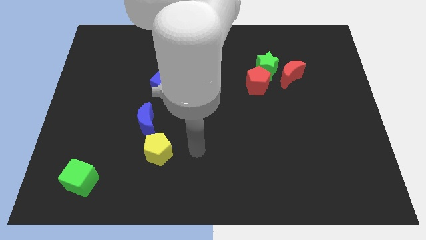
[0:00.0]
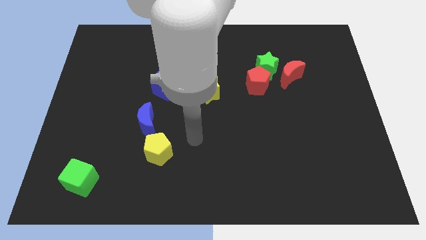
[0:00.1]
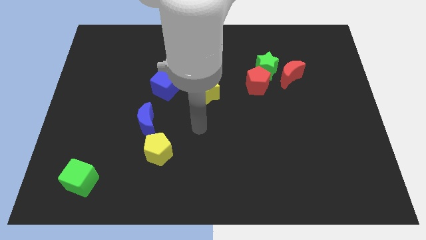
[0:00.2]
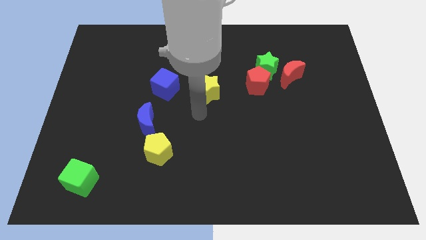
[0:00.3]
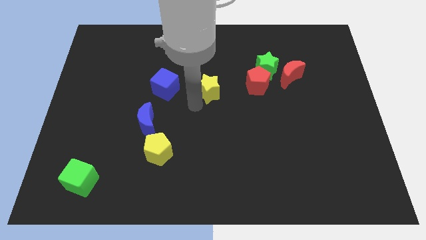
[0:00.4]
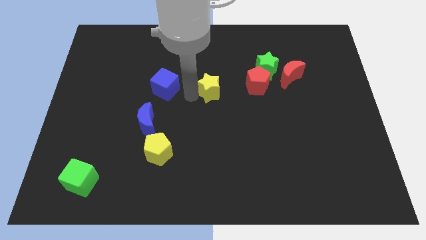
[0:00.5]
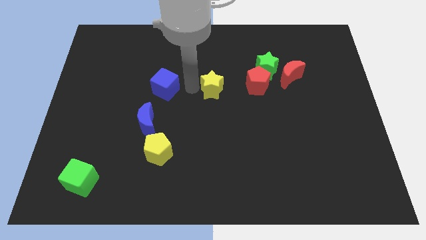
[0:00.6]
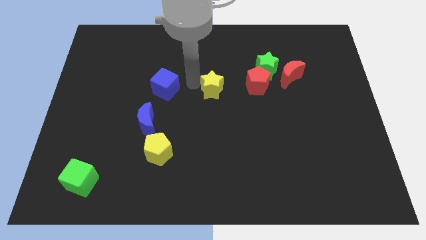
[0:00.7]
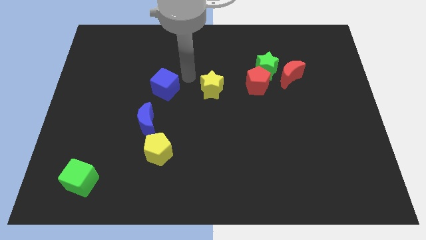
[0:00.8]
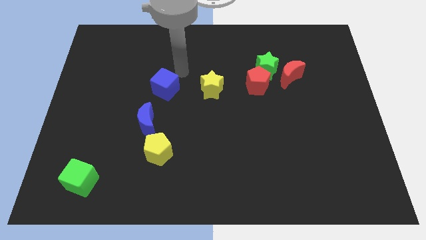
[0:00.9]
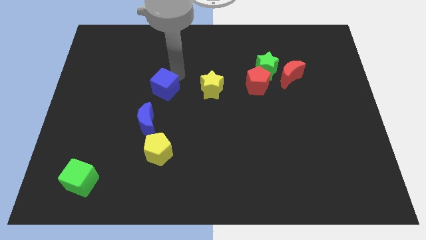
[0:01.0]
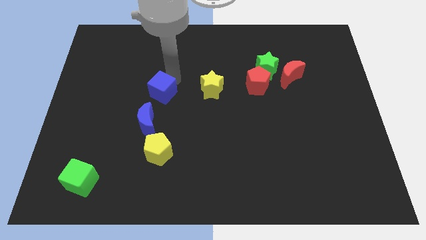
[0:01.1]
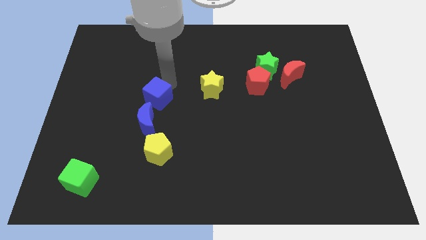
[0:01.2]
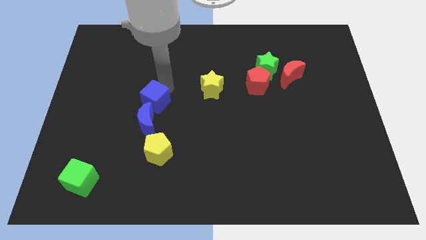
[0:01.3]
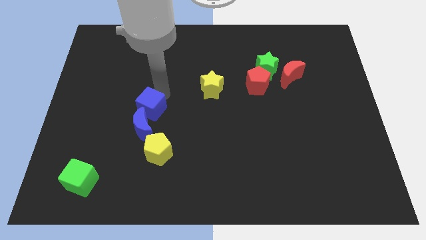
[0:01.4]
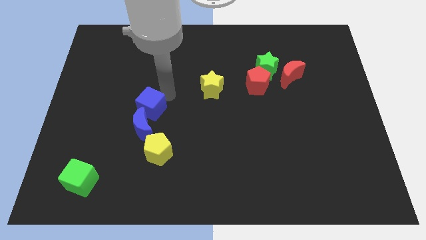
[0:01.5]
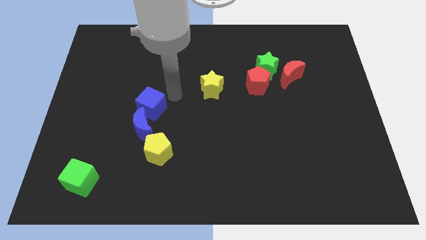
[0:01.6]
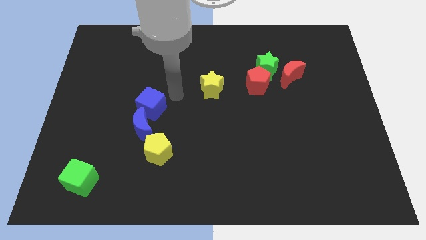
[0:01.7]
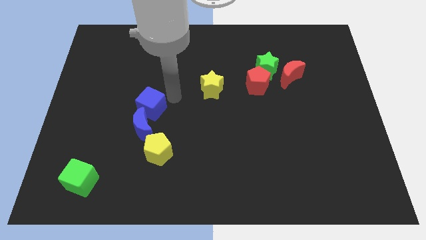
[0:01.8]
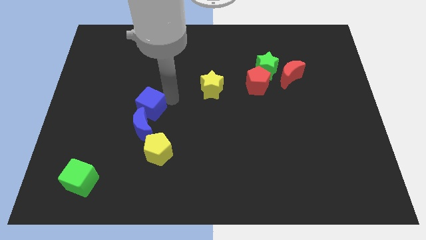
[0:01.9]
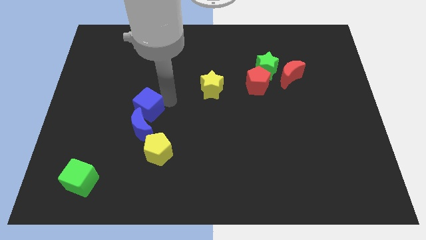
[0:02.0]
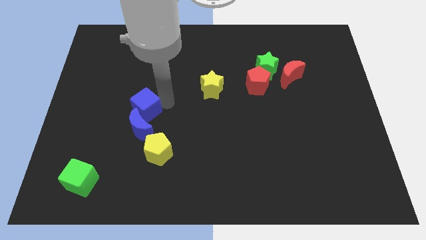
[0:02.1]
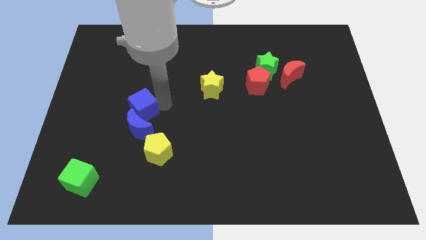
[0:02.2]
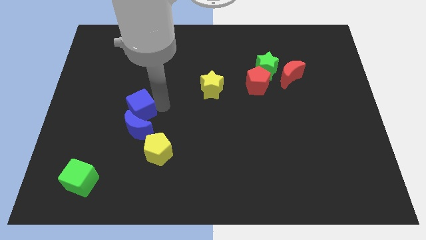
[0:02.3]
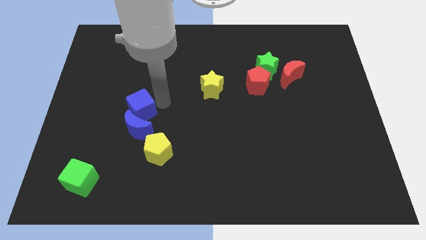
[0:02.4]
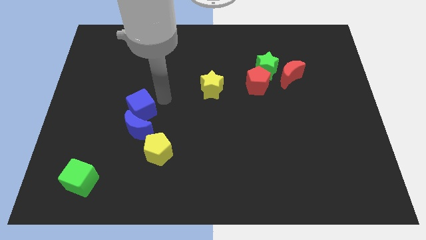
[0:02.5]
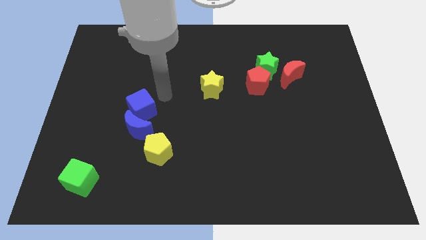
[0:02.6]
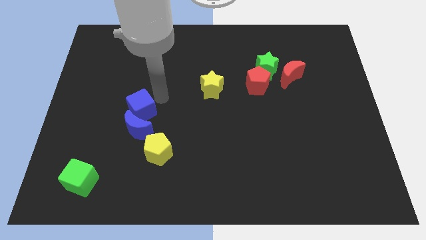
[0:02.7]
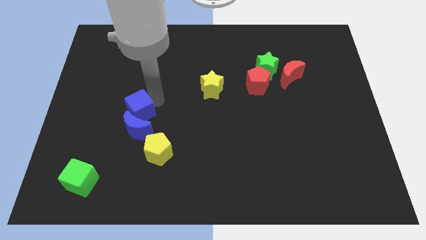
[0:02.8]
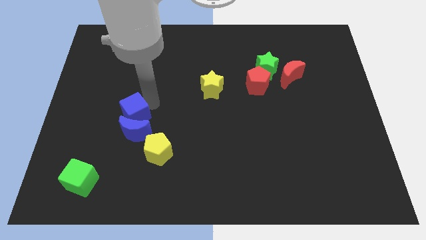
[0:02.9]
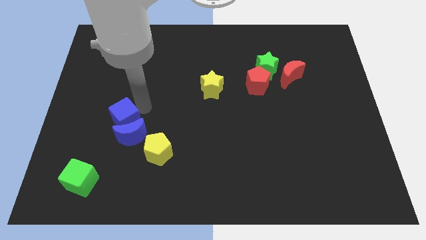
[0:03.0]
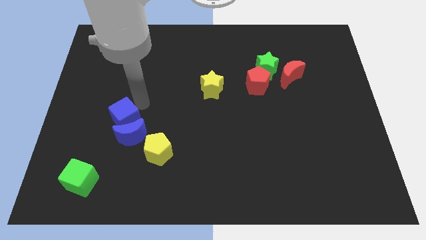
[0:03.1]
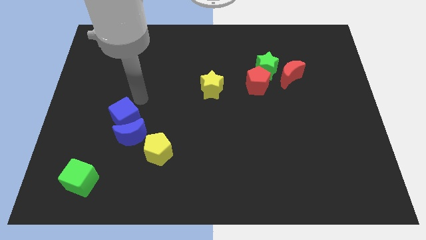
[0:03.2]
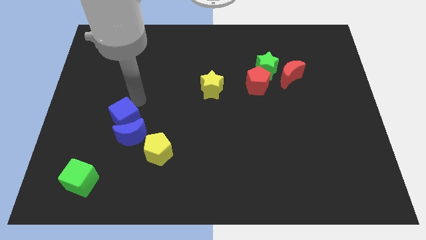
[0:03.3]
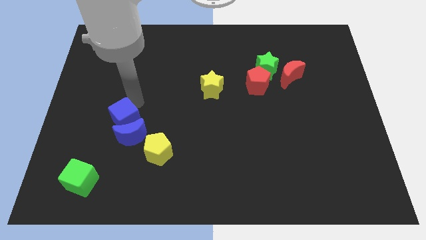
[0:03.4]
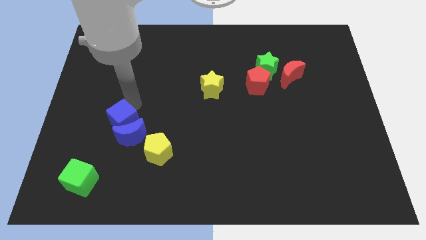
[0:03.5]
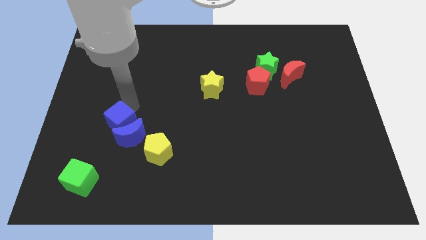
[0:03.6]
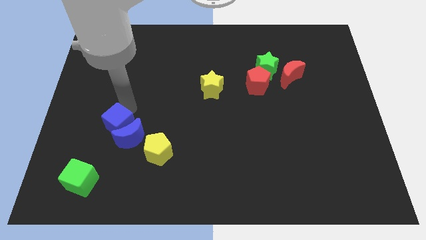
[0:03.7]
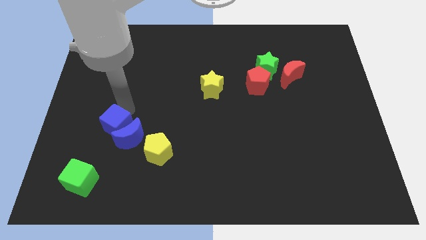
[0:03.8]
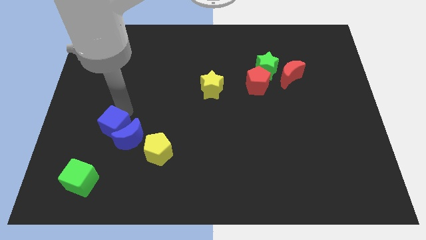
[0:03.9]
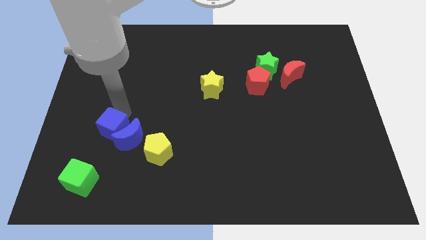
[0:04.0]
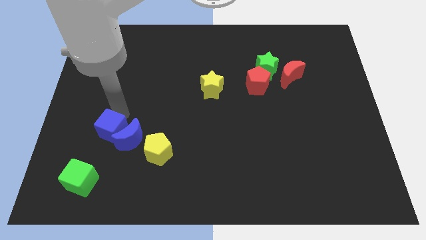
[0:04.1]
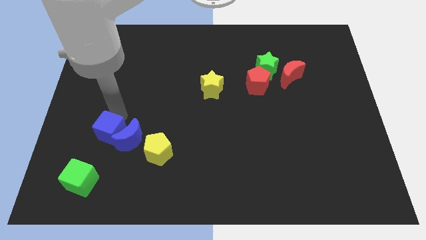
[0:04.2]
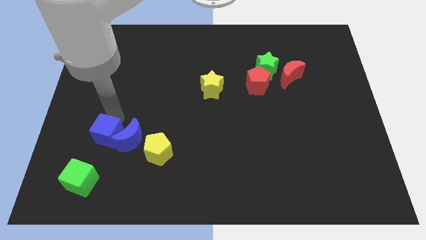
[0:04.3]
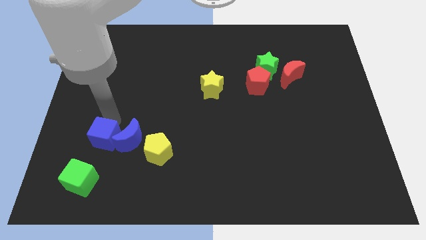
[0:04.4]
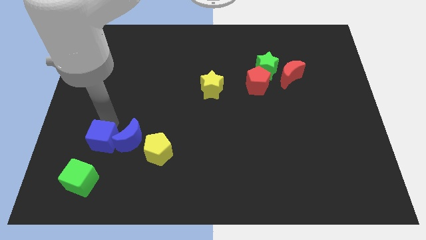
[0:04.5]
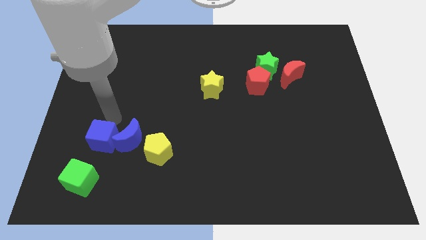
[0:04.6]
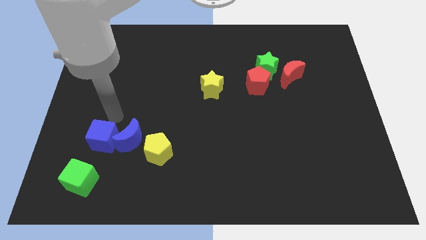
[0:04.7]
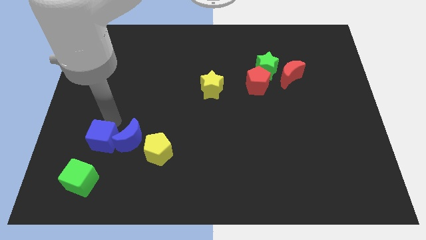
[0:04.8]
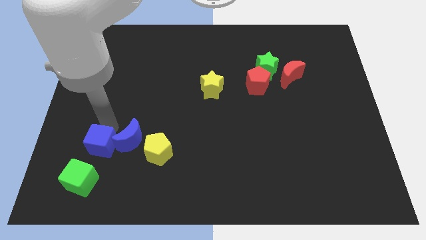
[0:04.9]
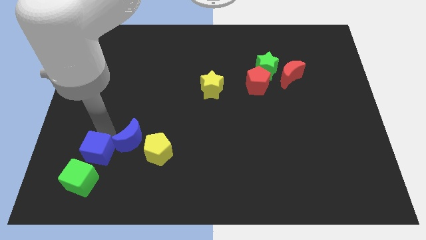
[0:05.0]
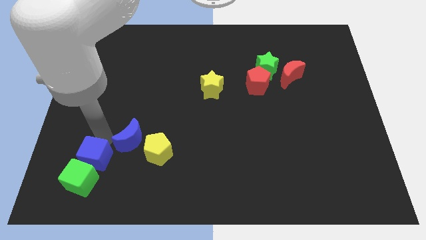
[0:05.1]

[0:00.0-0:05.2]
move the blue cube next to the green cube

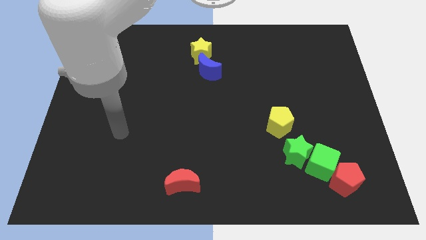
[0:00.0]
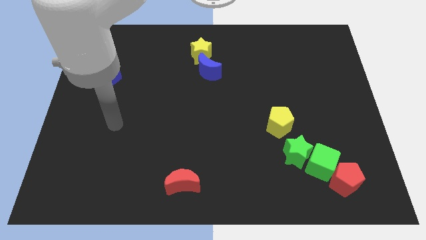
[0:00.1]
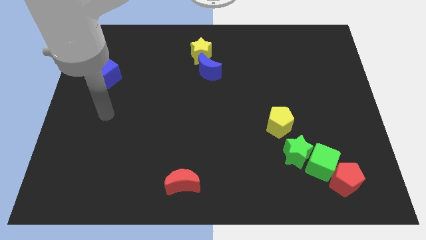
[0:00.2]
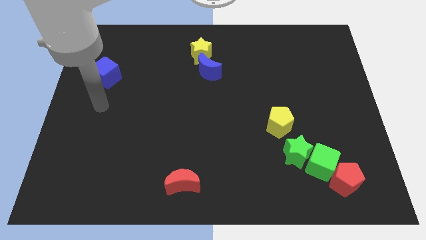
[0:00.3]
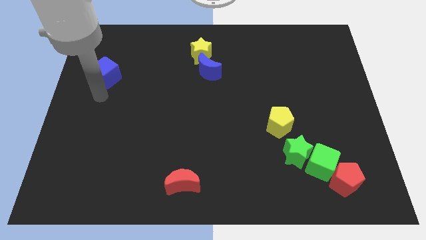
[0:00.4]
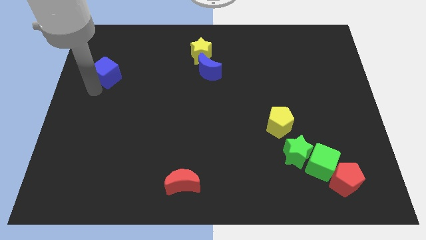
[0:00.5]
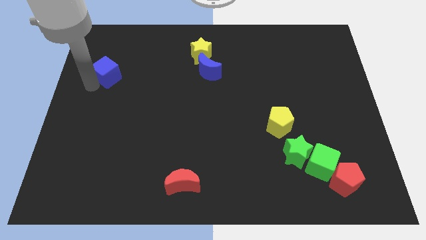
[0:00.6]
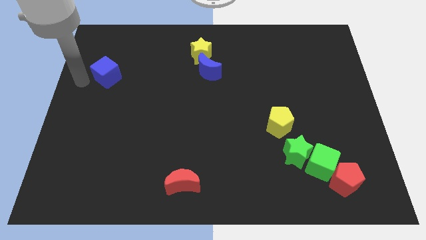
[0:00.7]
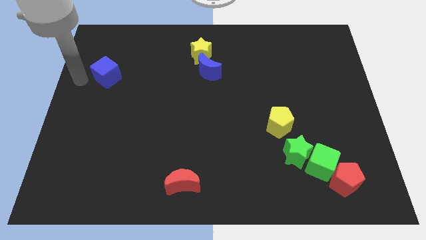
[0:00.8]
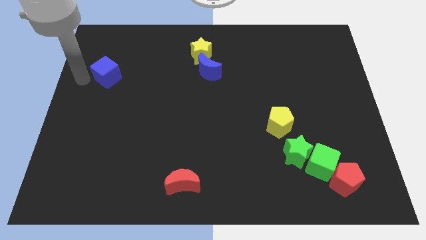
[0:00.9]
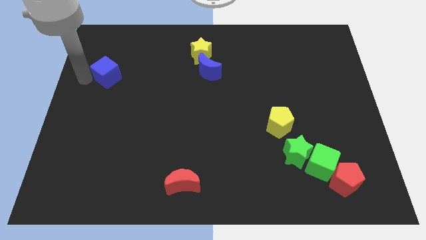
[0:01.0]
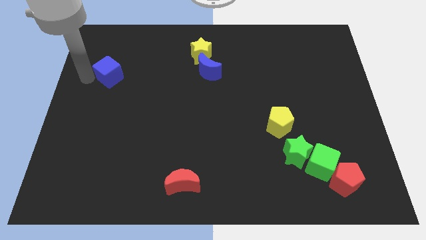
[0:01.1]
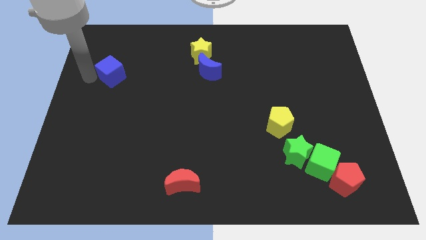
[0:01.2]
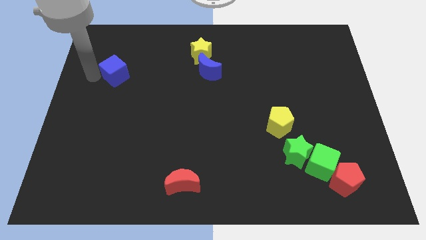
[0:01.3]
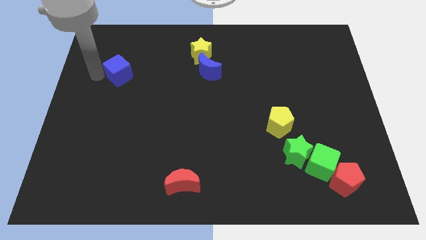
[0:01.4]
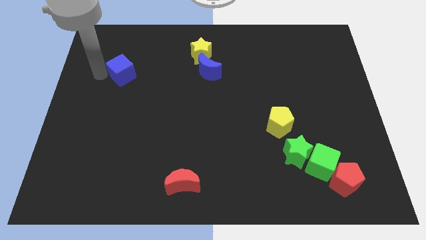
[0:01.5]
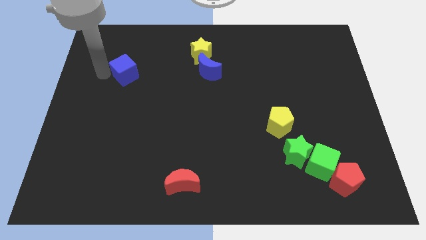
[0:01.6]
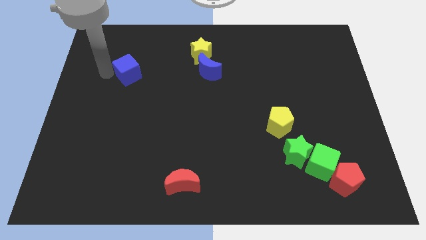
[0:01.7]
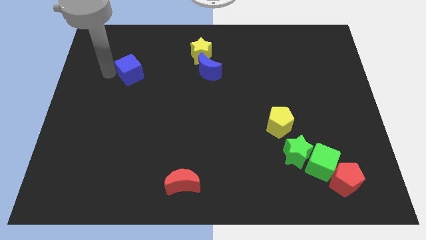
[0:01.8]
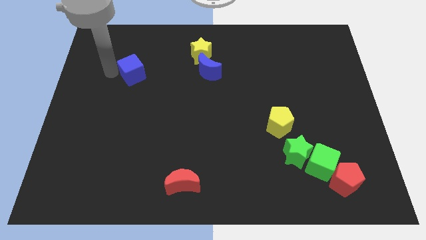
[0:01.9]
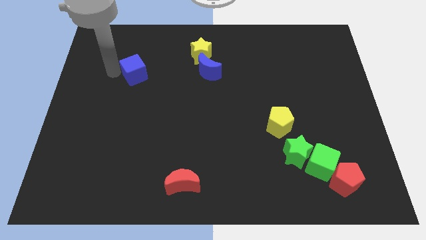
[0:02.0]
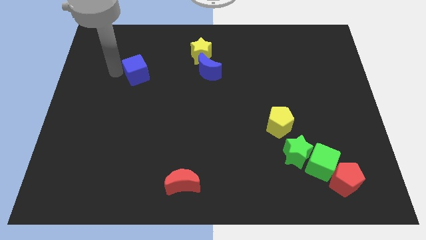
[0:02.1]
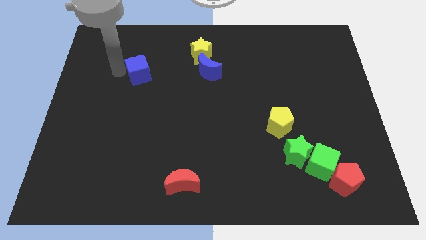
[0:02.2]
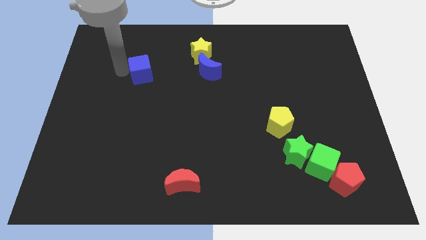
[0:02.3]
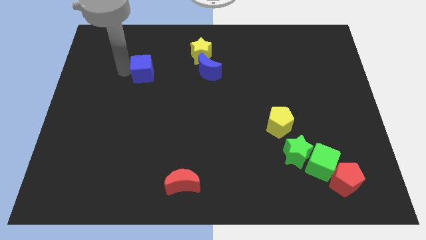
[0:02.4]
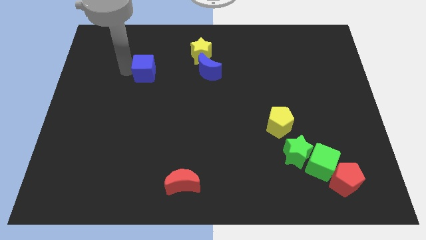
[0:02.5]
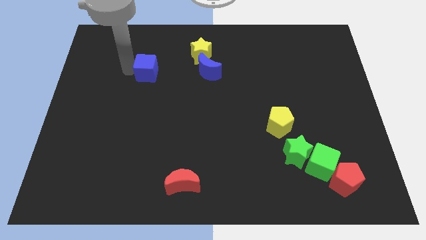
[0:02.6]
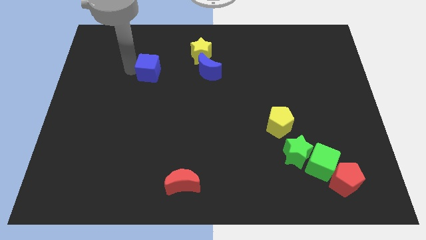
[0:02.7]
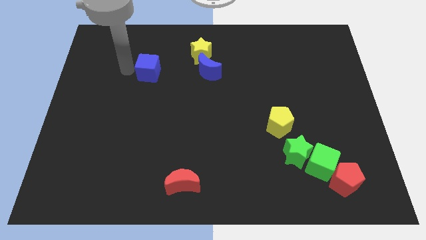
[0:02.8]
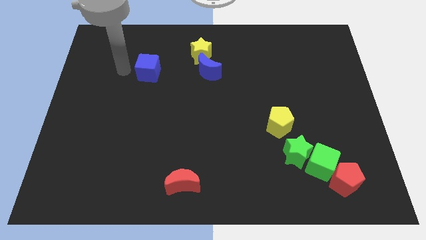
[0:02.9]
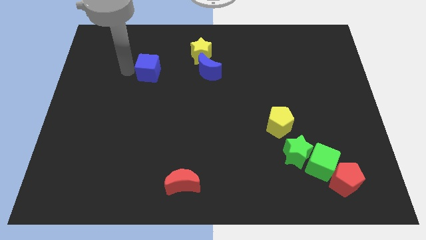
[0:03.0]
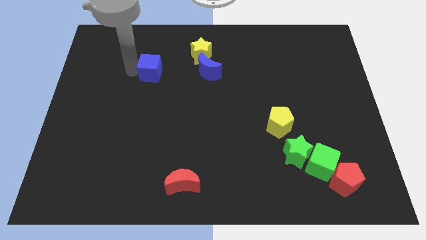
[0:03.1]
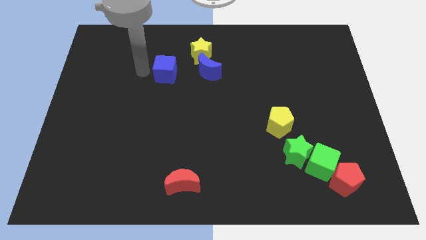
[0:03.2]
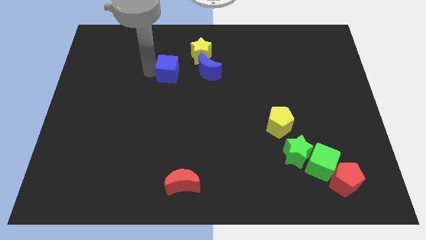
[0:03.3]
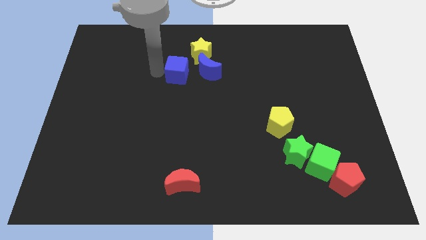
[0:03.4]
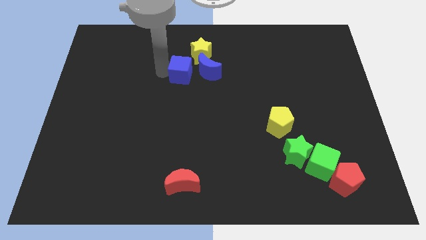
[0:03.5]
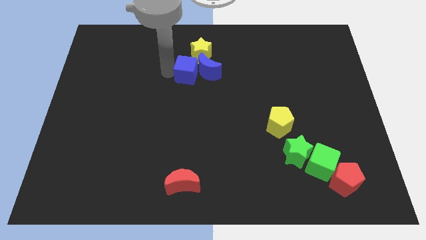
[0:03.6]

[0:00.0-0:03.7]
move the blue cube next to the blue moon
